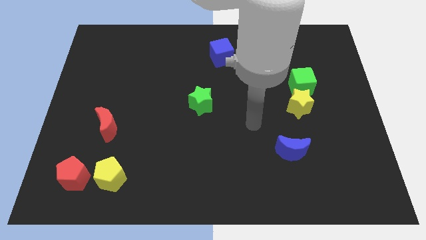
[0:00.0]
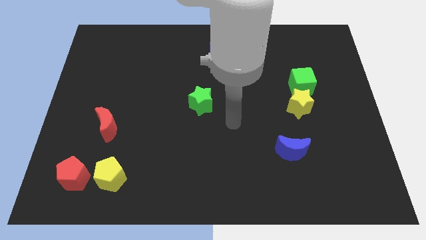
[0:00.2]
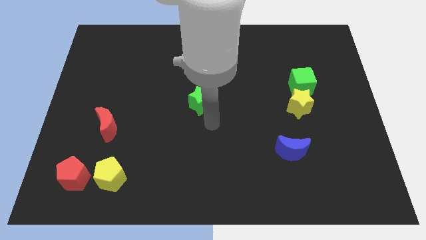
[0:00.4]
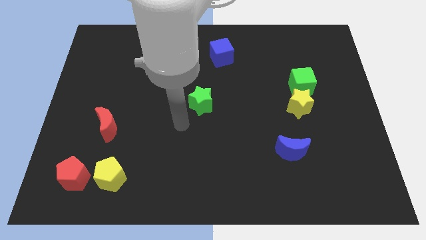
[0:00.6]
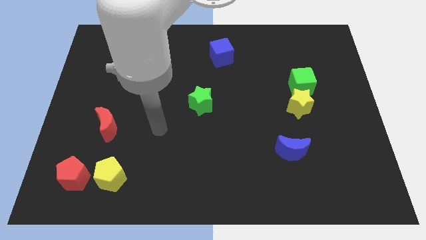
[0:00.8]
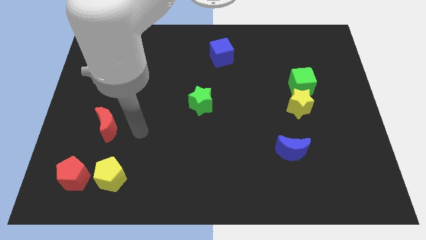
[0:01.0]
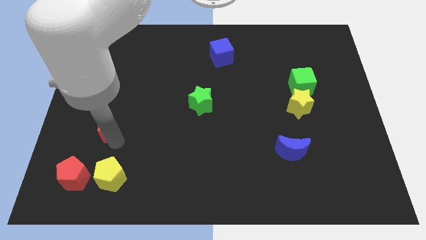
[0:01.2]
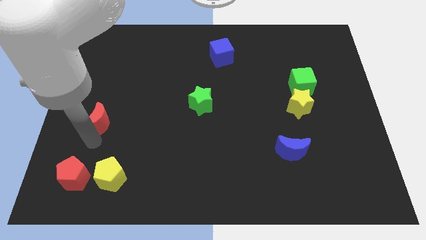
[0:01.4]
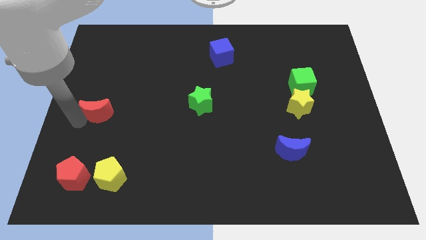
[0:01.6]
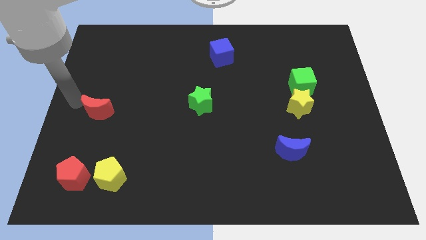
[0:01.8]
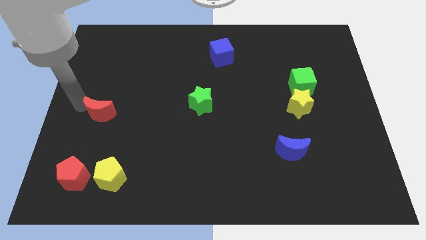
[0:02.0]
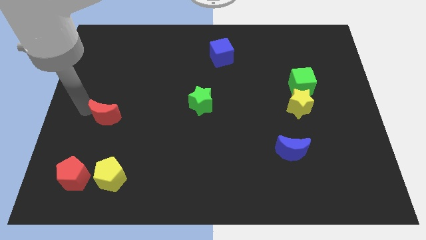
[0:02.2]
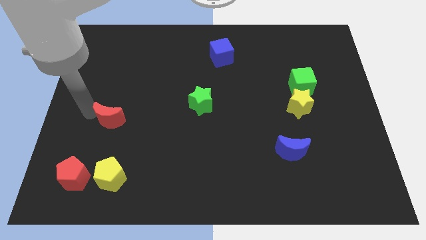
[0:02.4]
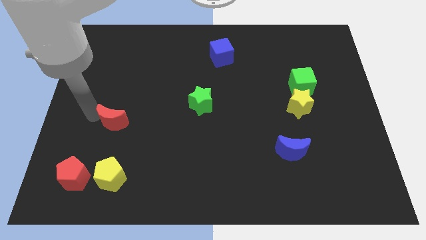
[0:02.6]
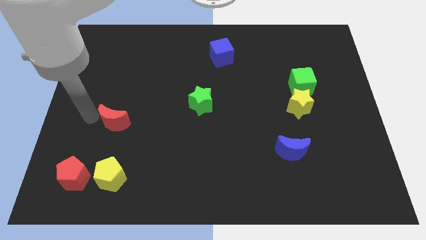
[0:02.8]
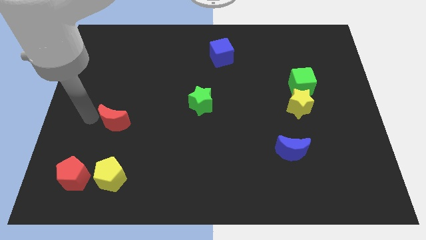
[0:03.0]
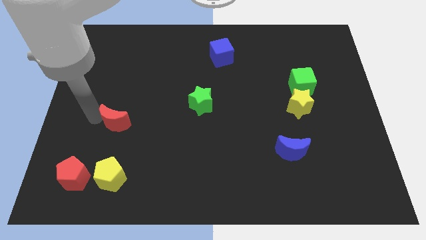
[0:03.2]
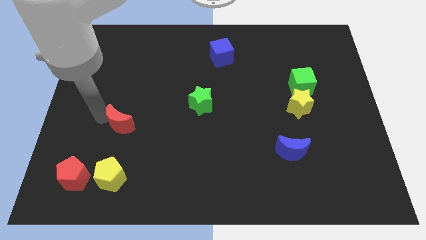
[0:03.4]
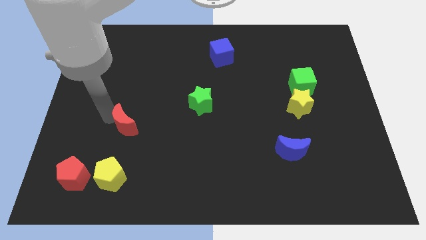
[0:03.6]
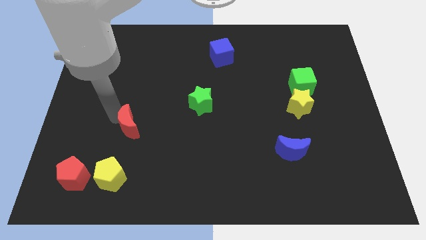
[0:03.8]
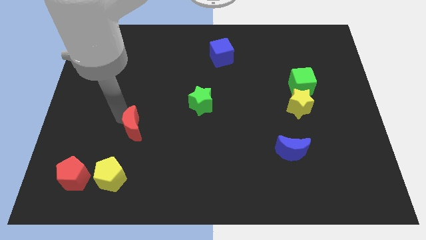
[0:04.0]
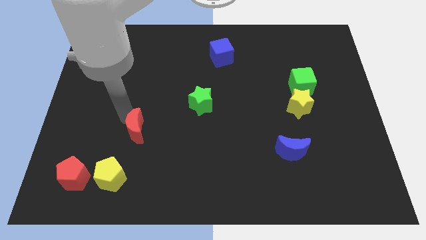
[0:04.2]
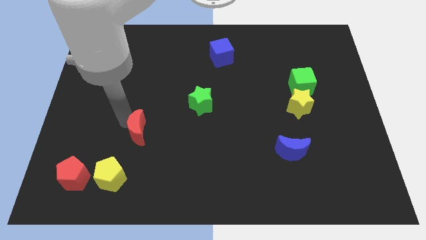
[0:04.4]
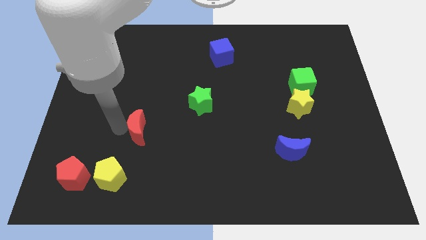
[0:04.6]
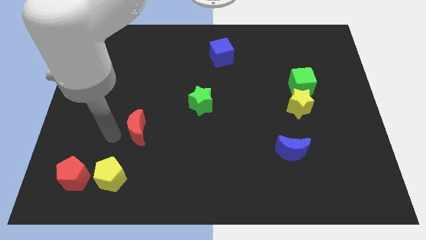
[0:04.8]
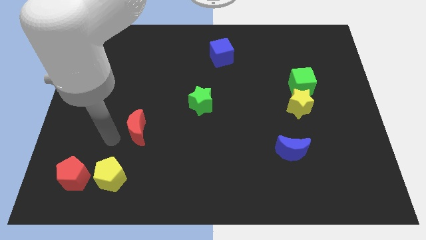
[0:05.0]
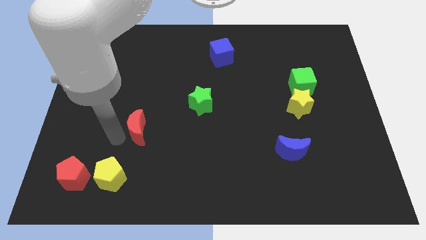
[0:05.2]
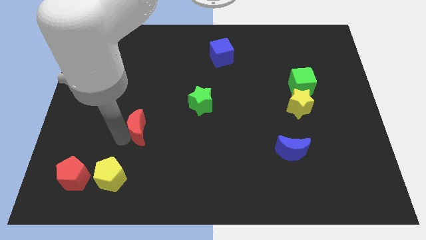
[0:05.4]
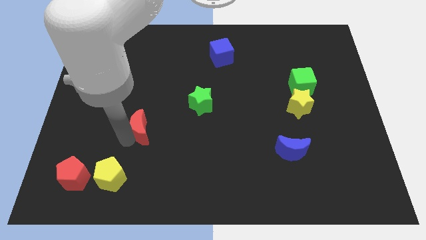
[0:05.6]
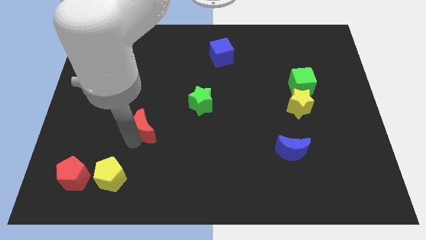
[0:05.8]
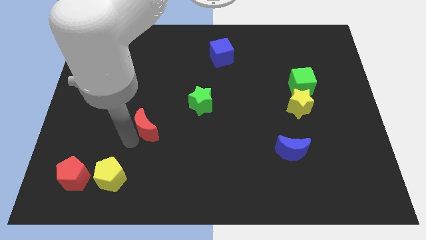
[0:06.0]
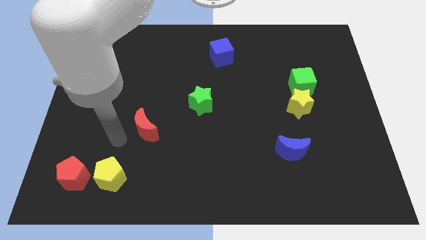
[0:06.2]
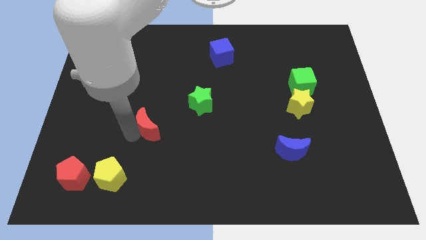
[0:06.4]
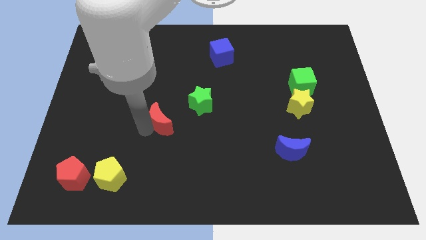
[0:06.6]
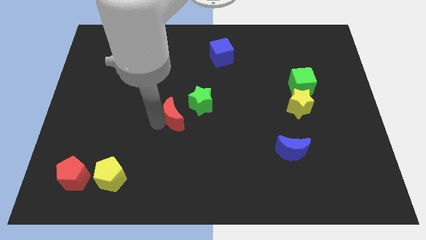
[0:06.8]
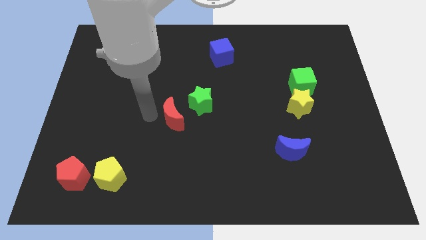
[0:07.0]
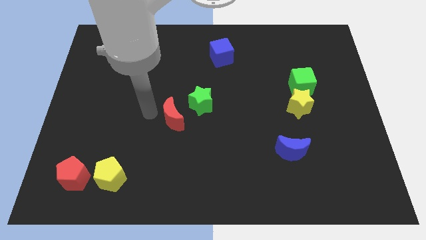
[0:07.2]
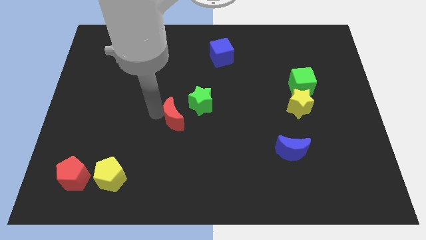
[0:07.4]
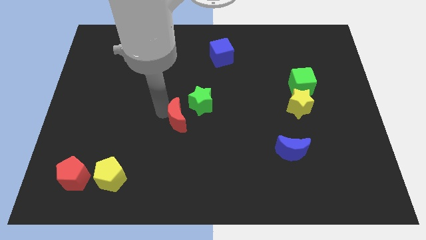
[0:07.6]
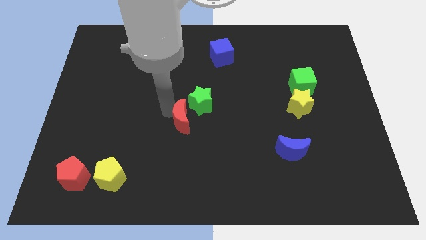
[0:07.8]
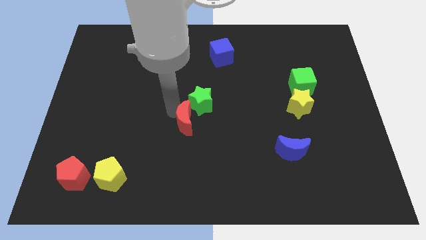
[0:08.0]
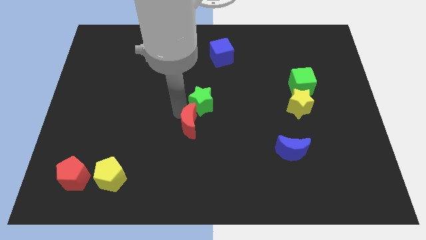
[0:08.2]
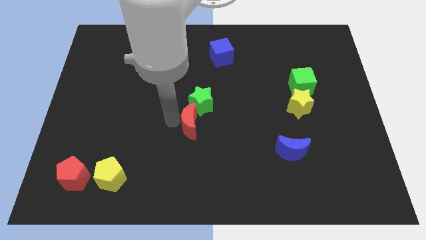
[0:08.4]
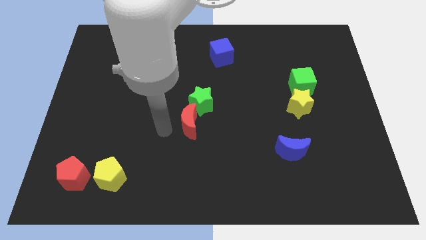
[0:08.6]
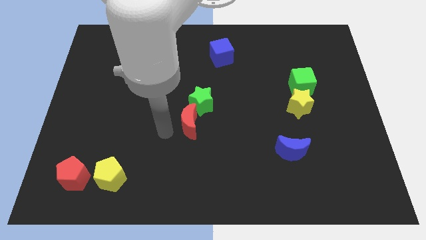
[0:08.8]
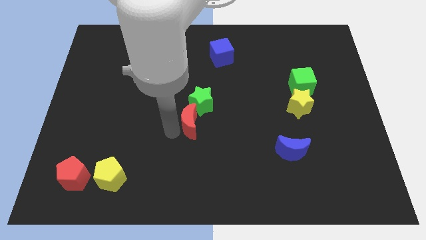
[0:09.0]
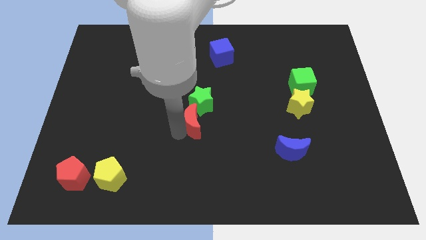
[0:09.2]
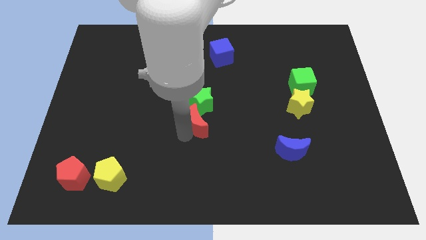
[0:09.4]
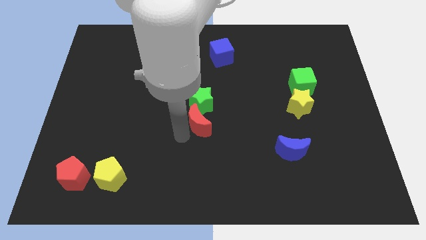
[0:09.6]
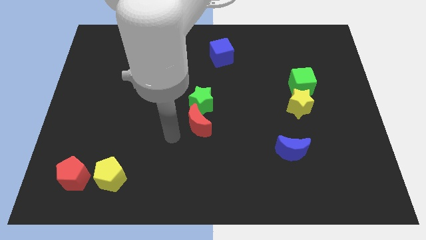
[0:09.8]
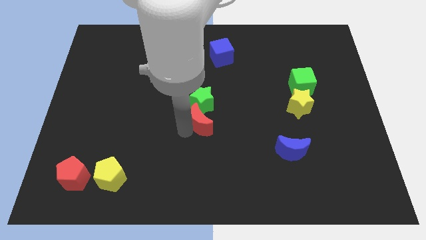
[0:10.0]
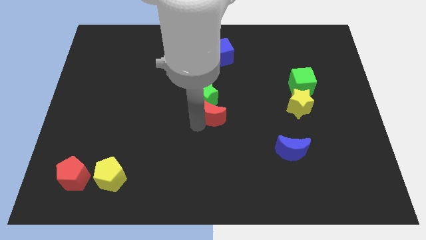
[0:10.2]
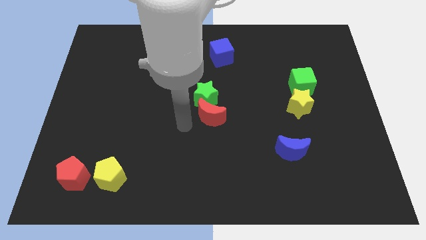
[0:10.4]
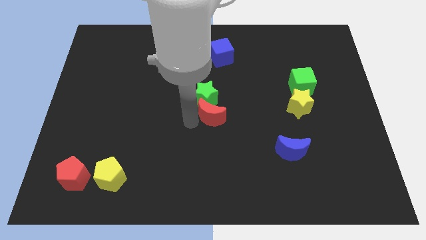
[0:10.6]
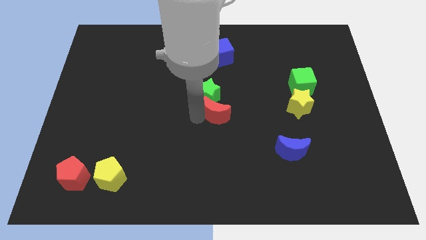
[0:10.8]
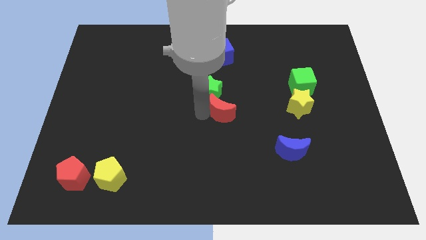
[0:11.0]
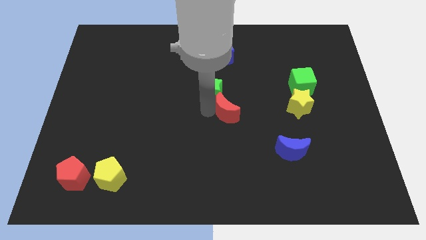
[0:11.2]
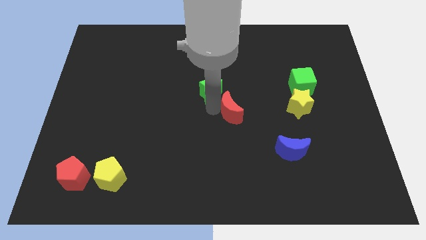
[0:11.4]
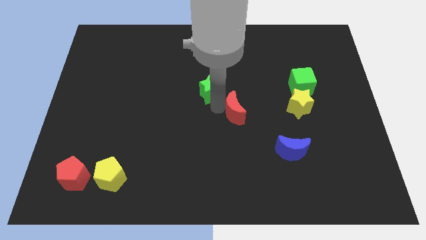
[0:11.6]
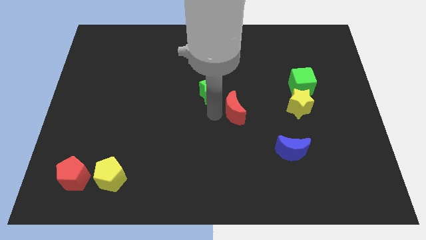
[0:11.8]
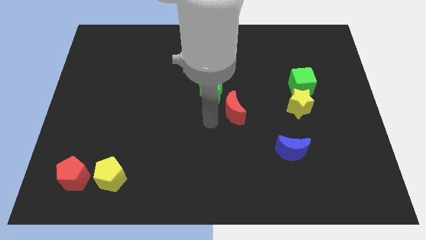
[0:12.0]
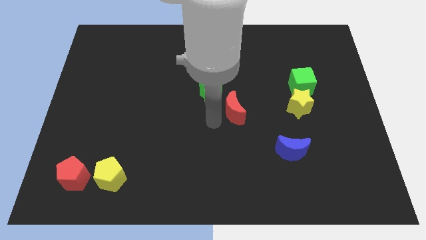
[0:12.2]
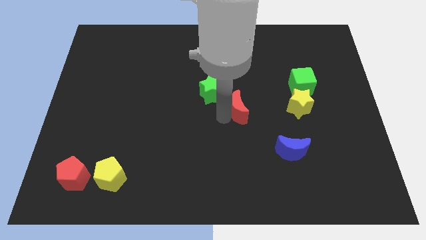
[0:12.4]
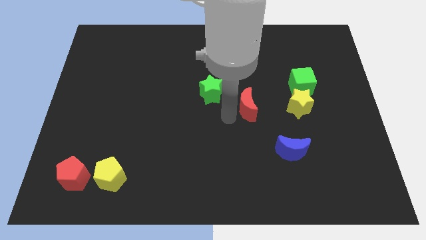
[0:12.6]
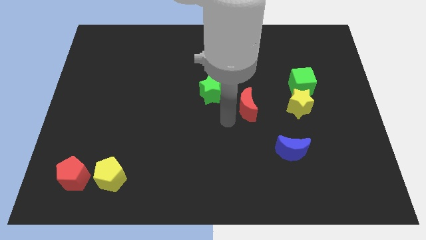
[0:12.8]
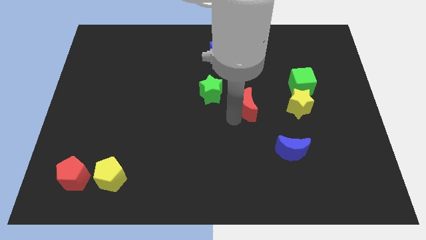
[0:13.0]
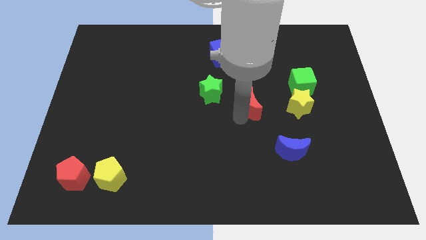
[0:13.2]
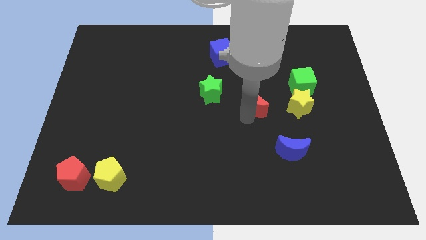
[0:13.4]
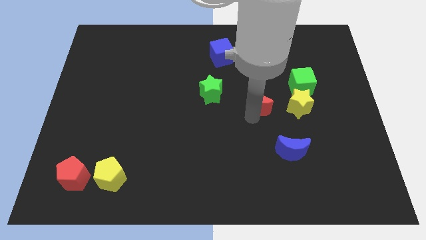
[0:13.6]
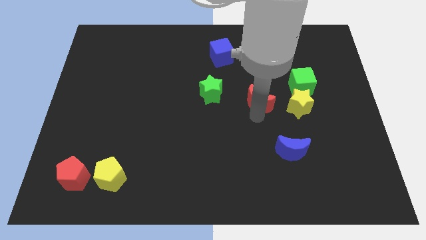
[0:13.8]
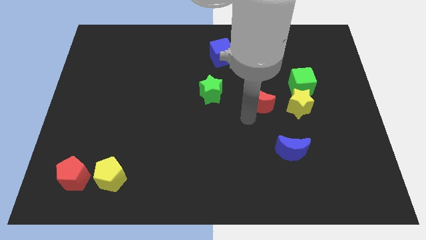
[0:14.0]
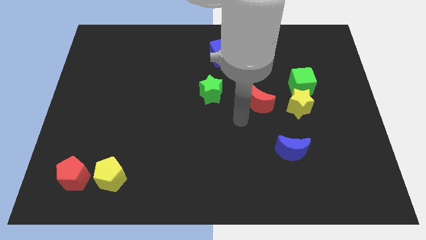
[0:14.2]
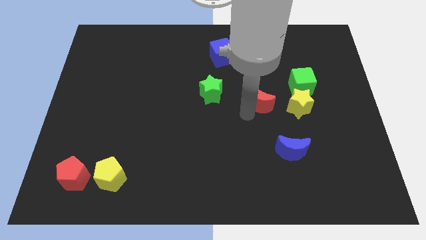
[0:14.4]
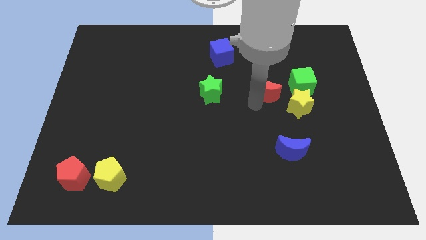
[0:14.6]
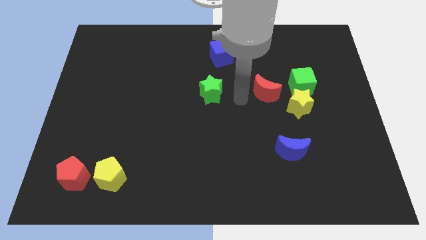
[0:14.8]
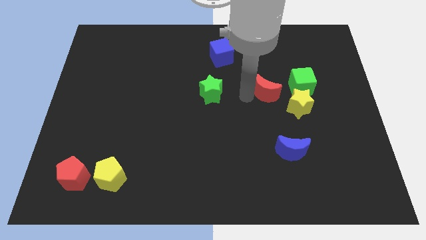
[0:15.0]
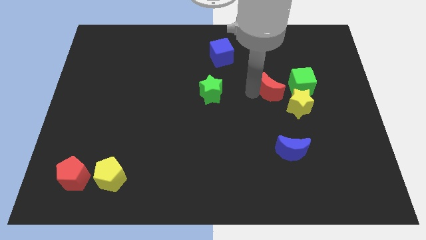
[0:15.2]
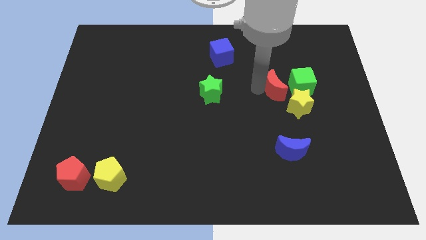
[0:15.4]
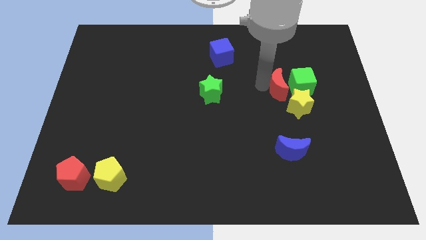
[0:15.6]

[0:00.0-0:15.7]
push the red moon to the green cube
